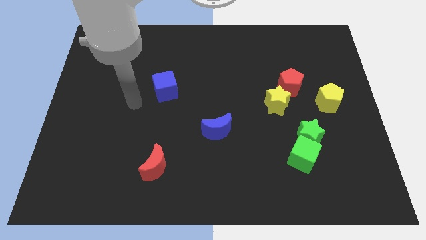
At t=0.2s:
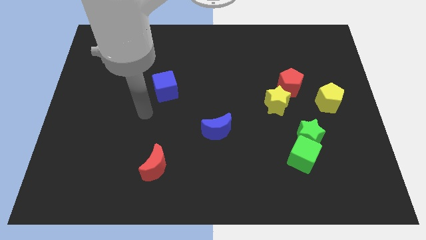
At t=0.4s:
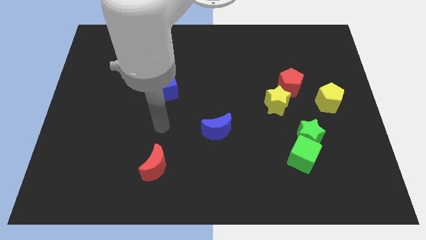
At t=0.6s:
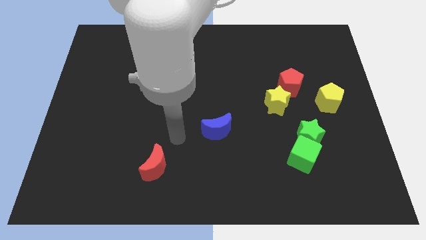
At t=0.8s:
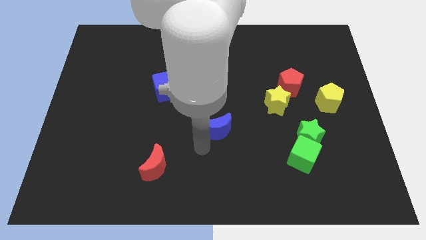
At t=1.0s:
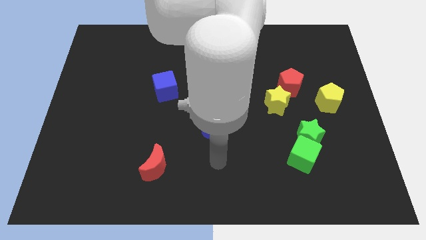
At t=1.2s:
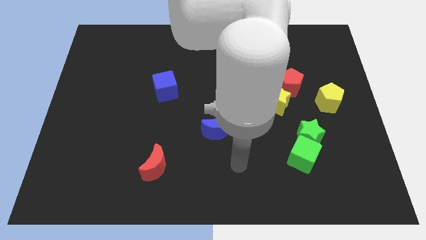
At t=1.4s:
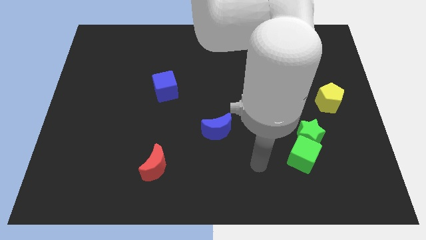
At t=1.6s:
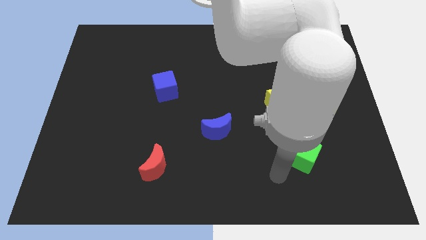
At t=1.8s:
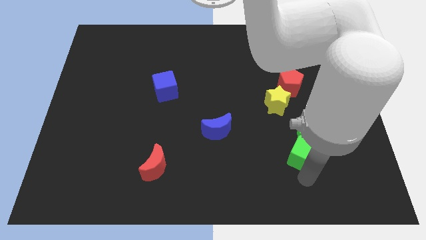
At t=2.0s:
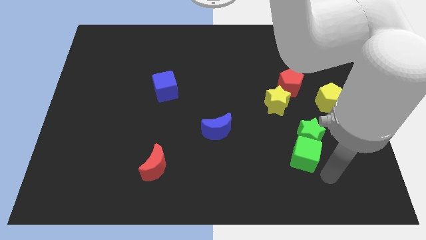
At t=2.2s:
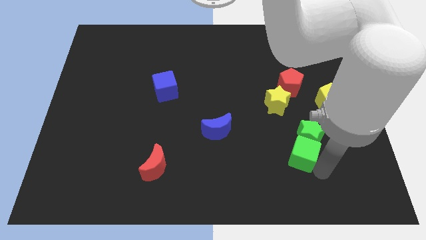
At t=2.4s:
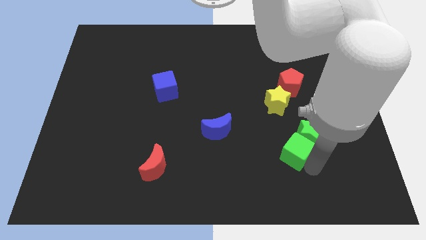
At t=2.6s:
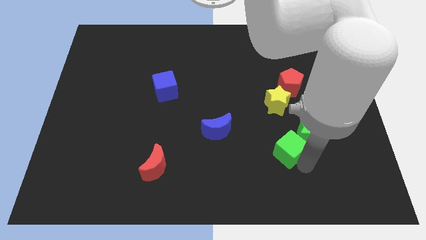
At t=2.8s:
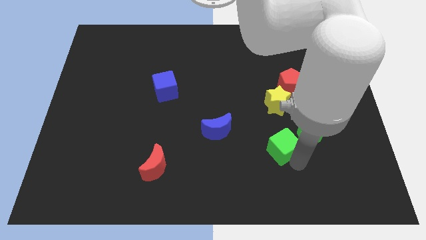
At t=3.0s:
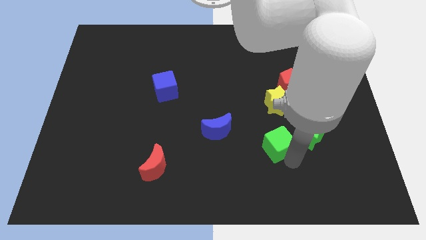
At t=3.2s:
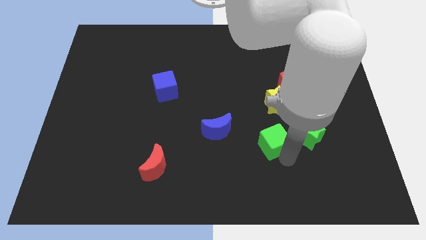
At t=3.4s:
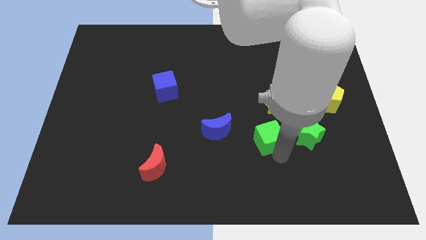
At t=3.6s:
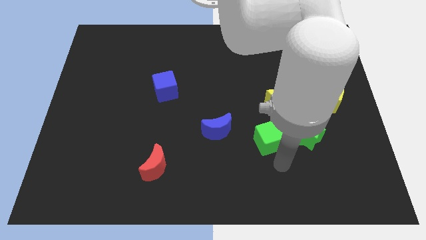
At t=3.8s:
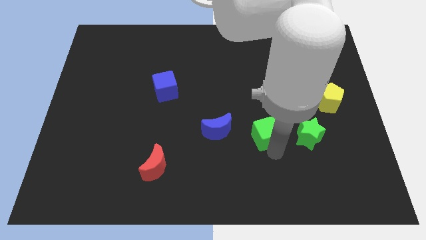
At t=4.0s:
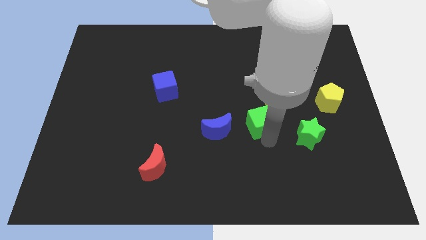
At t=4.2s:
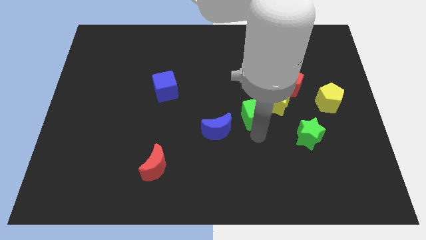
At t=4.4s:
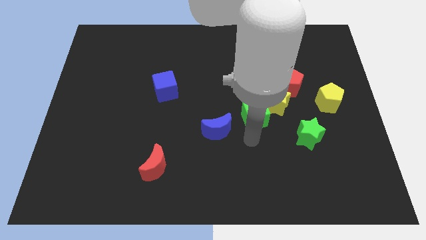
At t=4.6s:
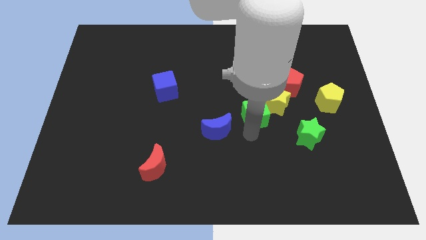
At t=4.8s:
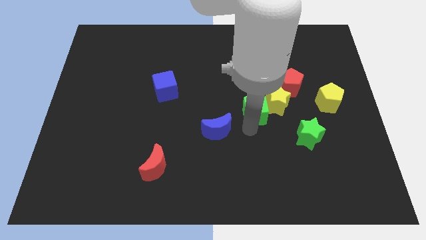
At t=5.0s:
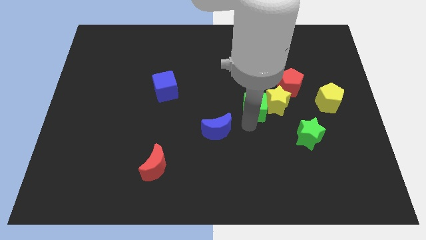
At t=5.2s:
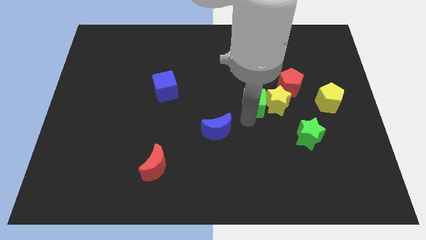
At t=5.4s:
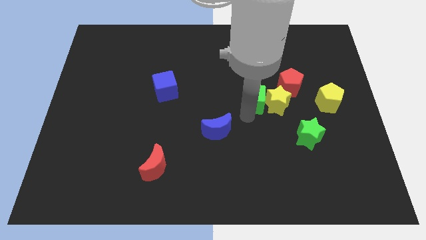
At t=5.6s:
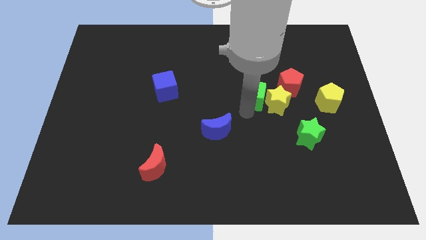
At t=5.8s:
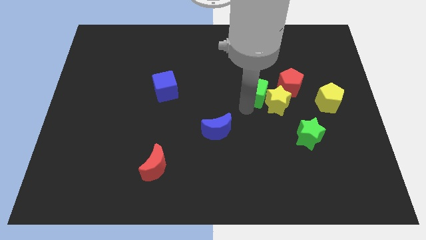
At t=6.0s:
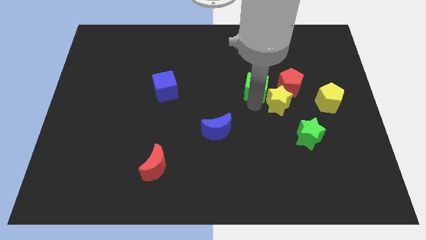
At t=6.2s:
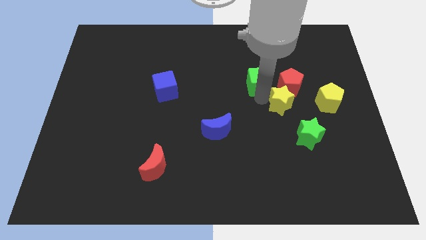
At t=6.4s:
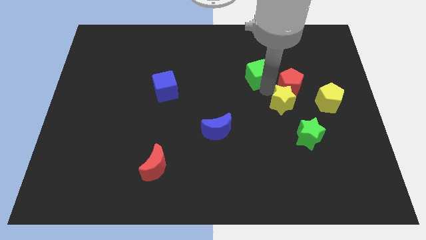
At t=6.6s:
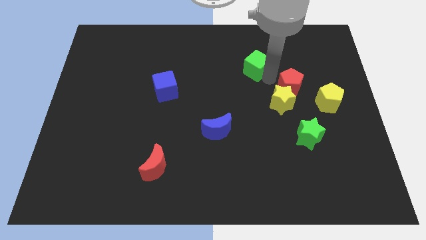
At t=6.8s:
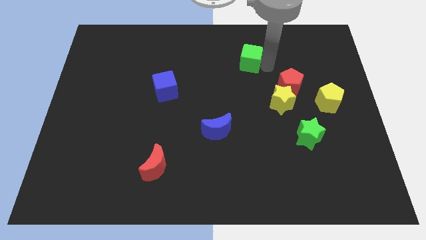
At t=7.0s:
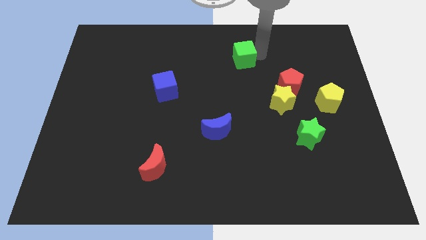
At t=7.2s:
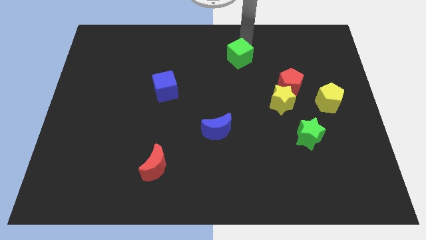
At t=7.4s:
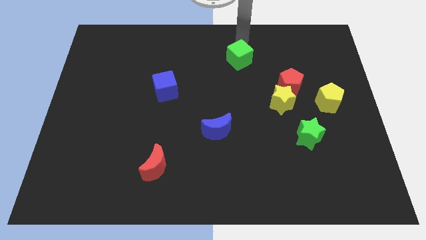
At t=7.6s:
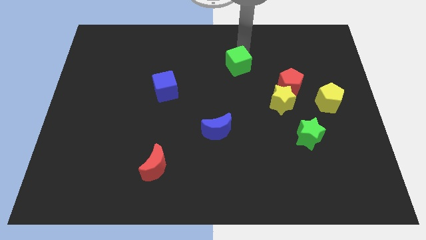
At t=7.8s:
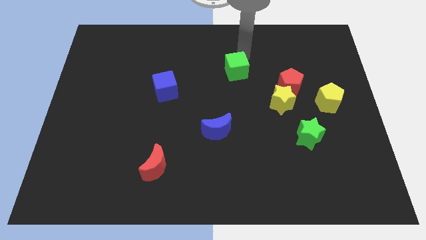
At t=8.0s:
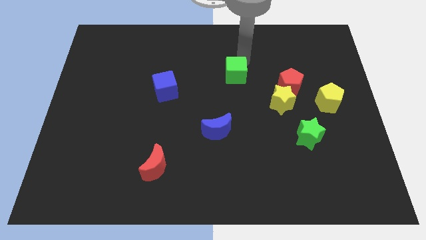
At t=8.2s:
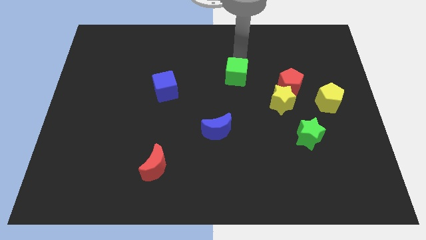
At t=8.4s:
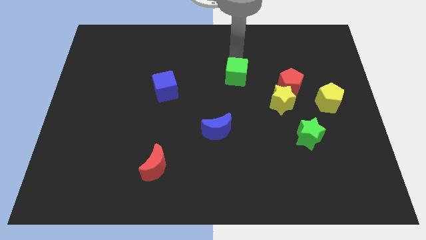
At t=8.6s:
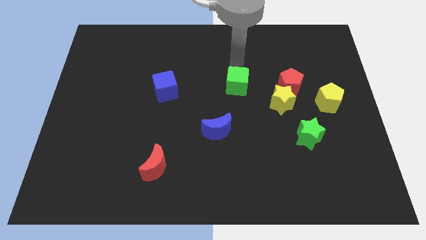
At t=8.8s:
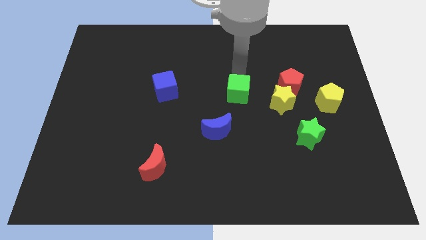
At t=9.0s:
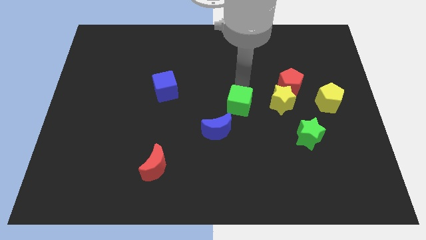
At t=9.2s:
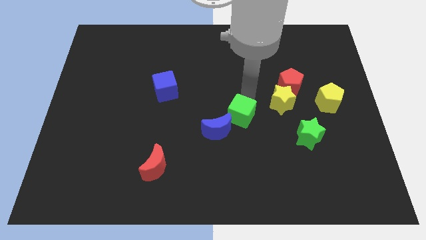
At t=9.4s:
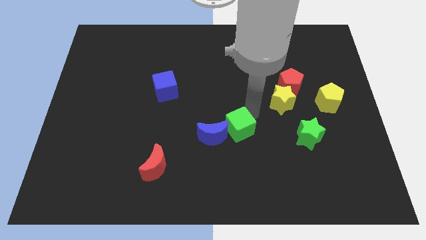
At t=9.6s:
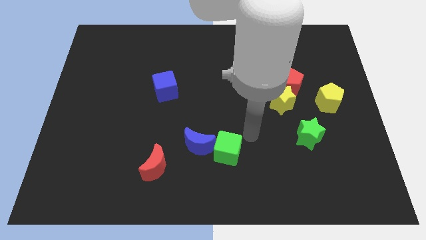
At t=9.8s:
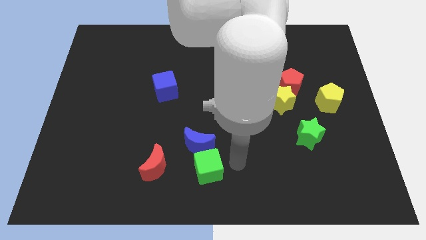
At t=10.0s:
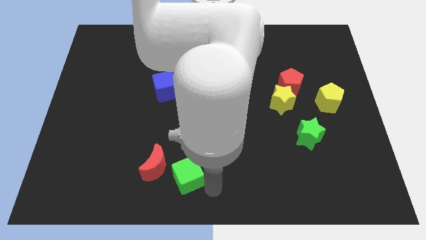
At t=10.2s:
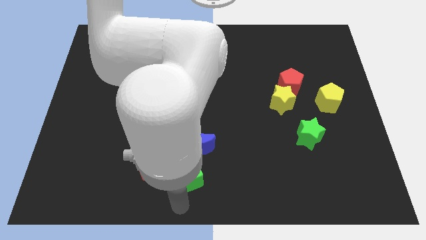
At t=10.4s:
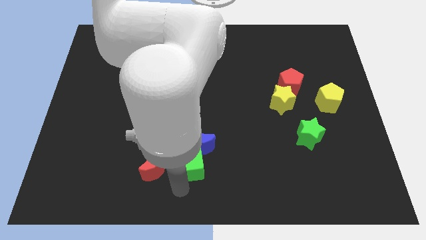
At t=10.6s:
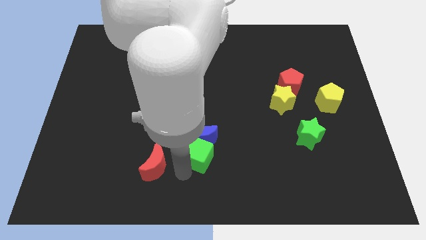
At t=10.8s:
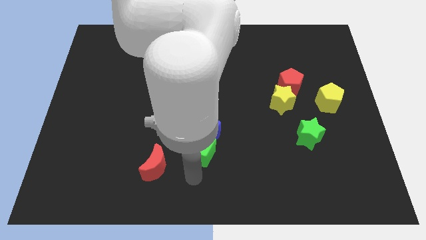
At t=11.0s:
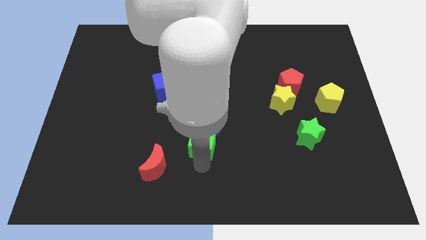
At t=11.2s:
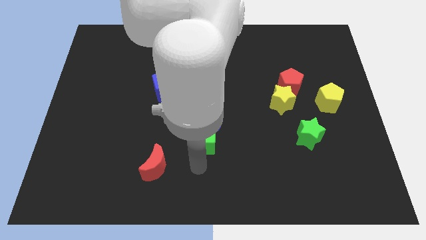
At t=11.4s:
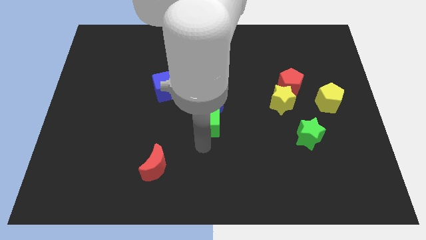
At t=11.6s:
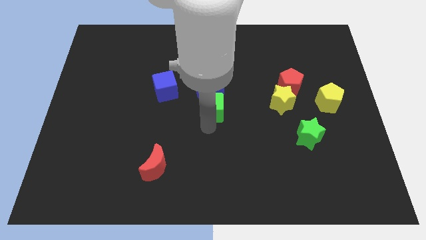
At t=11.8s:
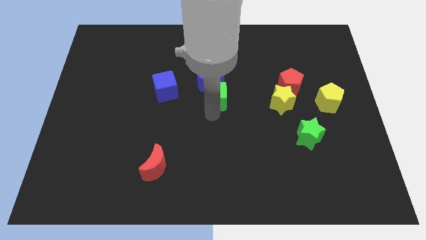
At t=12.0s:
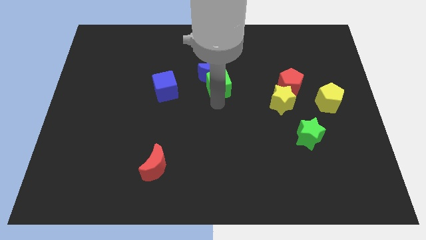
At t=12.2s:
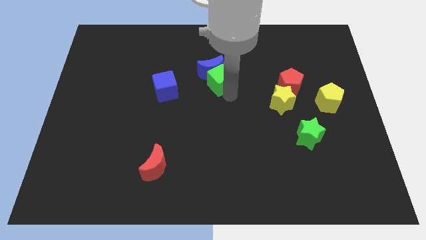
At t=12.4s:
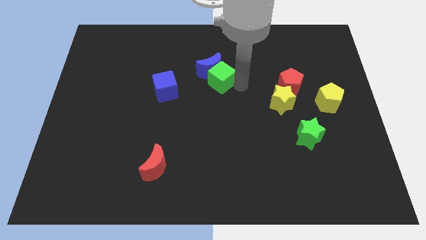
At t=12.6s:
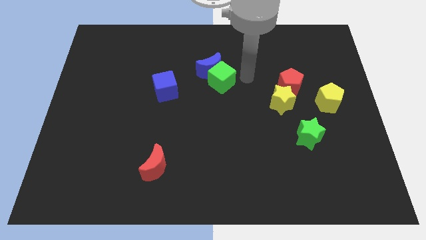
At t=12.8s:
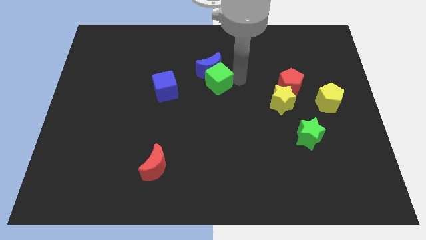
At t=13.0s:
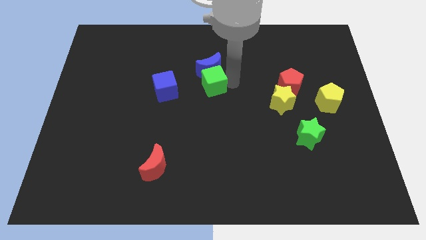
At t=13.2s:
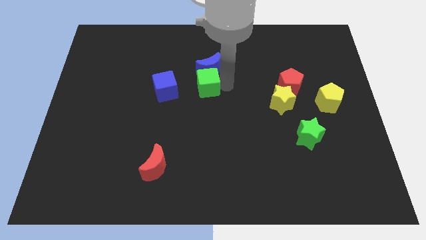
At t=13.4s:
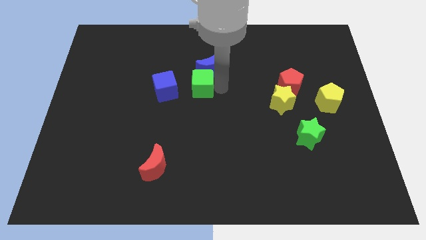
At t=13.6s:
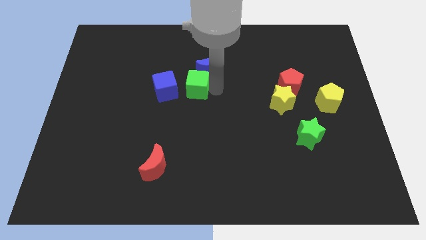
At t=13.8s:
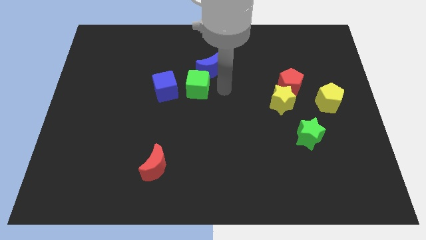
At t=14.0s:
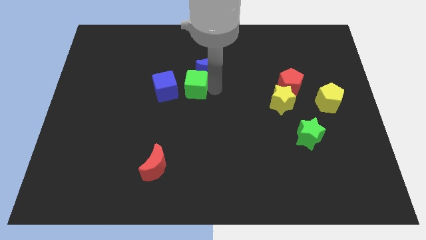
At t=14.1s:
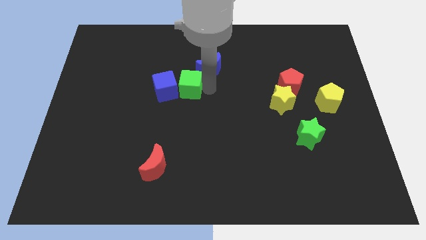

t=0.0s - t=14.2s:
put the green cube next to the blue cube
